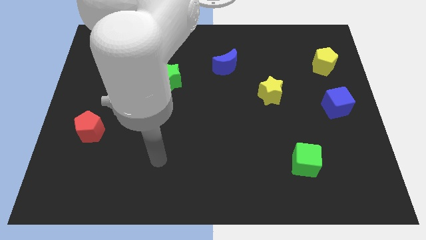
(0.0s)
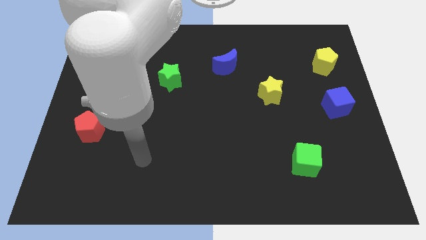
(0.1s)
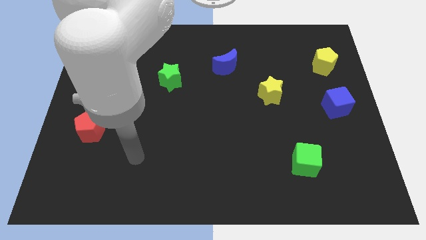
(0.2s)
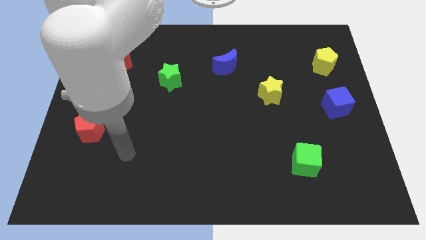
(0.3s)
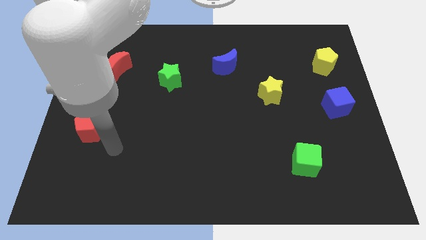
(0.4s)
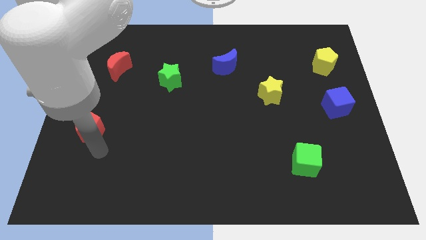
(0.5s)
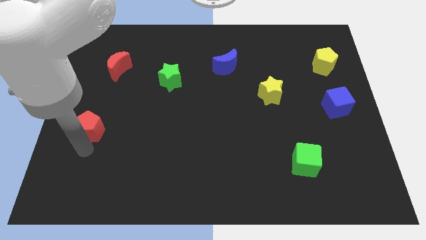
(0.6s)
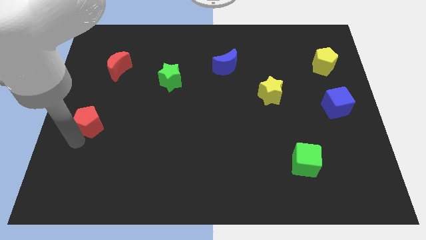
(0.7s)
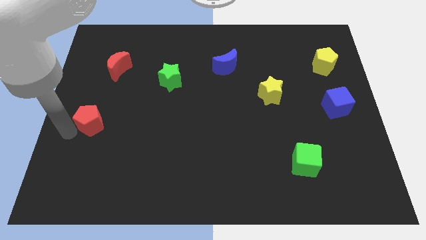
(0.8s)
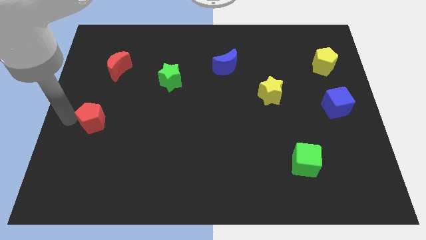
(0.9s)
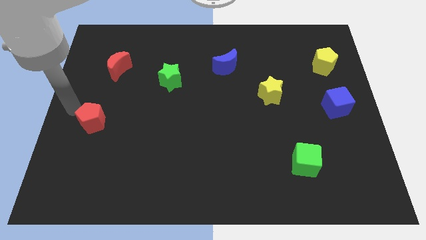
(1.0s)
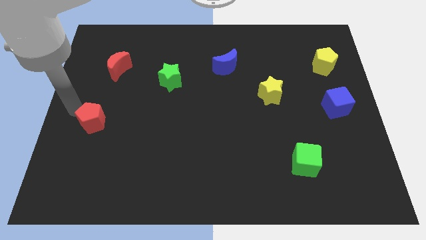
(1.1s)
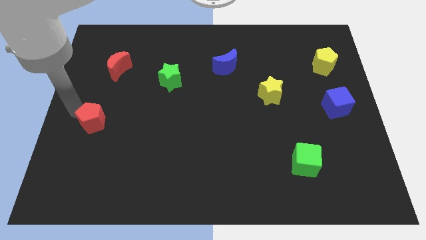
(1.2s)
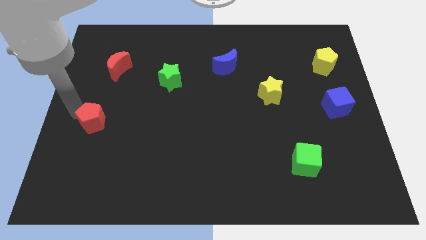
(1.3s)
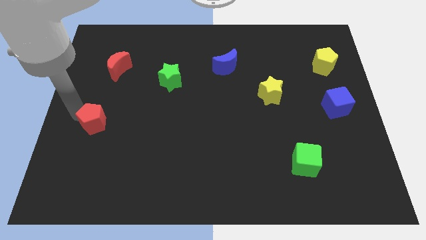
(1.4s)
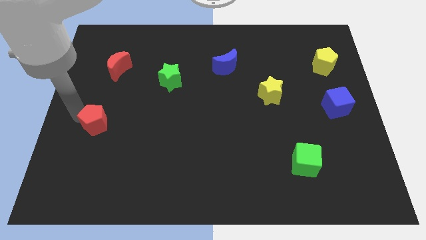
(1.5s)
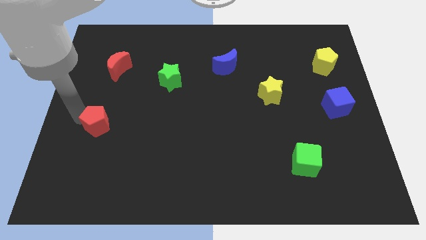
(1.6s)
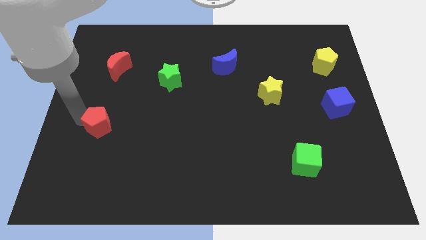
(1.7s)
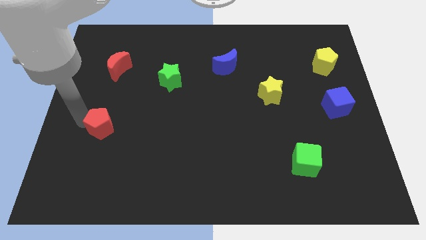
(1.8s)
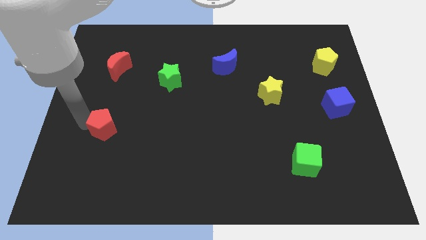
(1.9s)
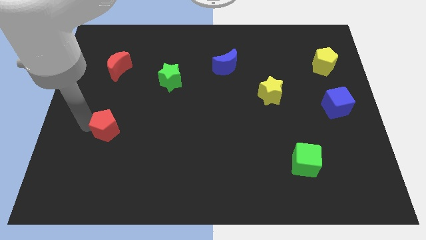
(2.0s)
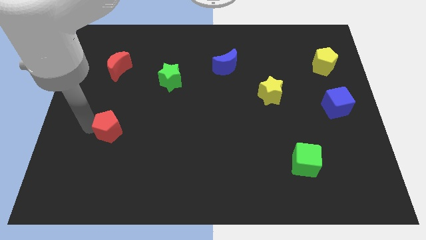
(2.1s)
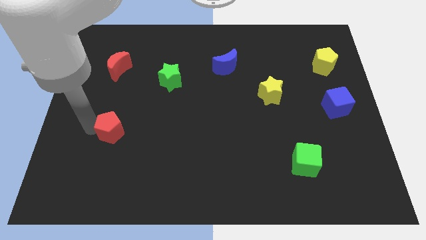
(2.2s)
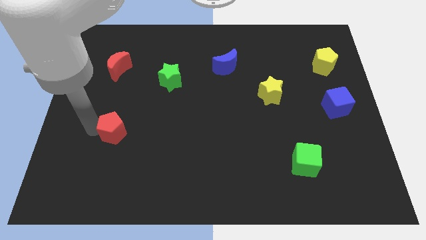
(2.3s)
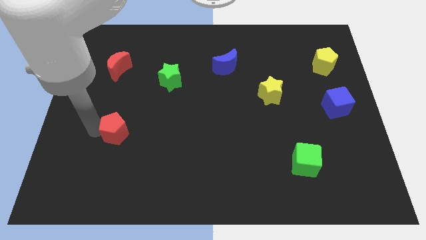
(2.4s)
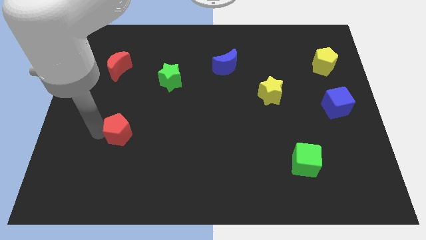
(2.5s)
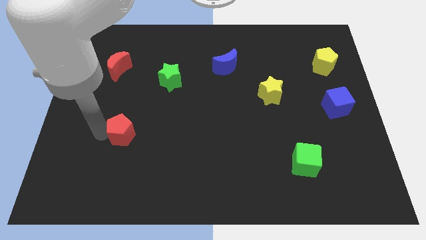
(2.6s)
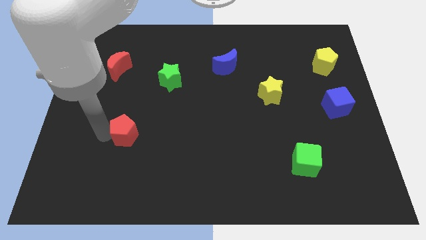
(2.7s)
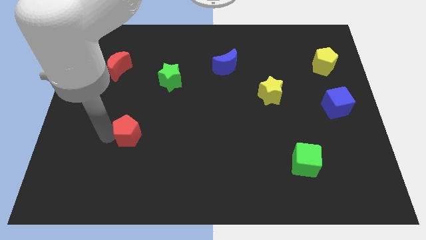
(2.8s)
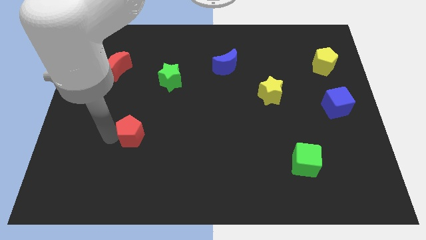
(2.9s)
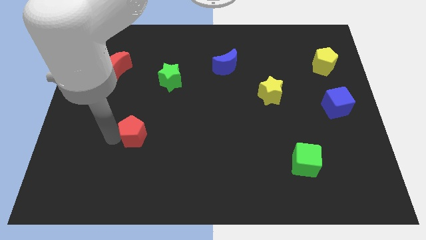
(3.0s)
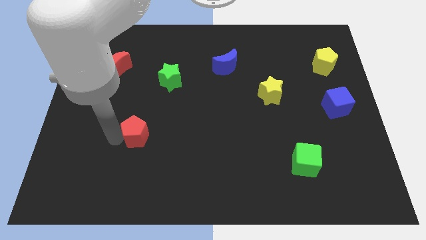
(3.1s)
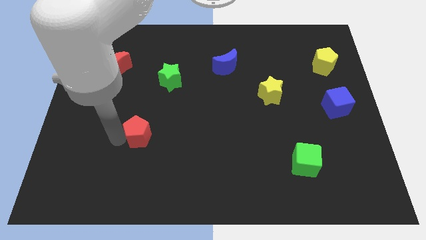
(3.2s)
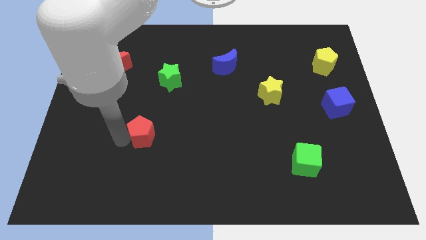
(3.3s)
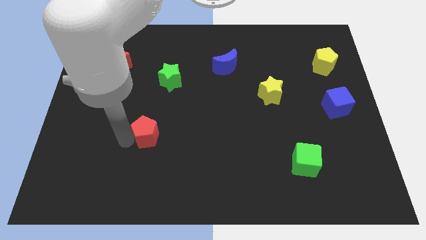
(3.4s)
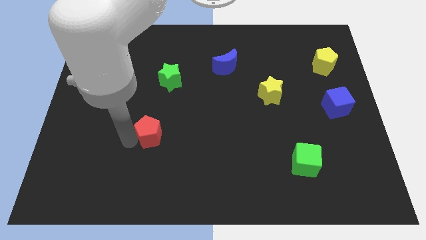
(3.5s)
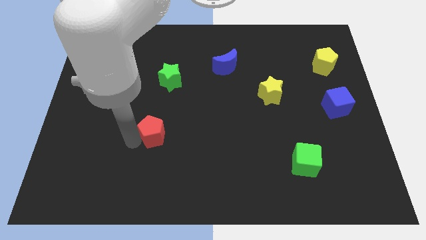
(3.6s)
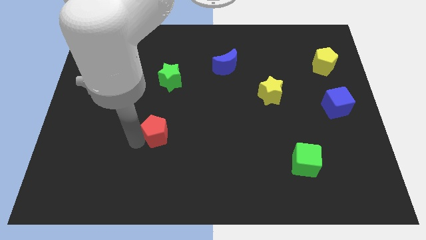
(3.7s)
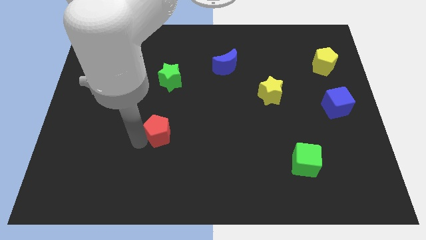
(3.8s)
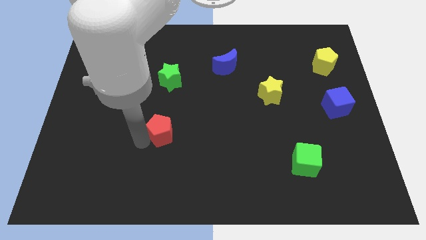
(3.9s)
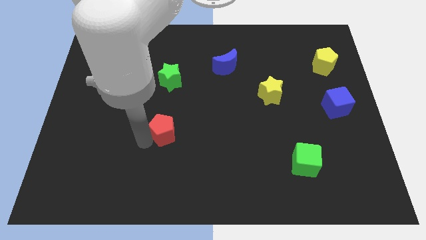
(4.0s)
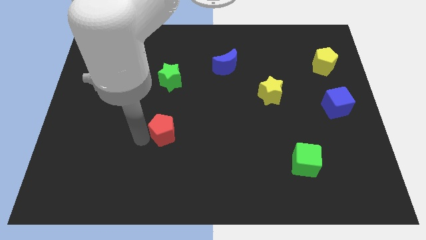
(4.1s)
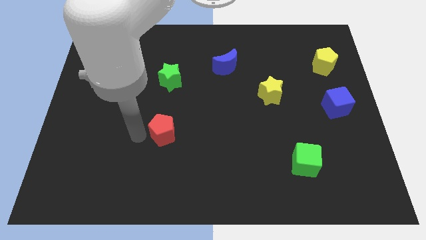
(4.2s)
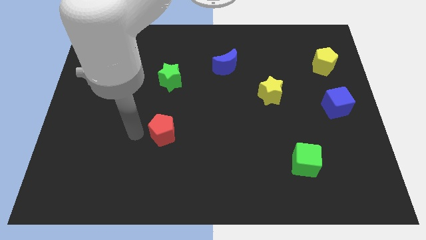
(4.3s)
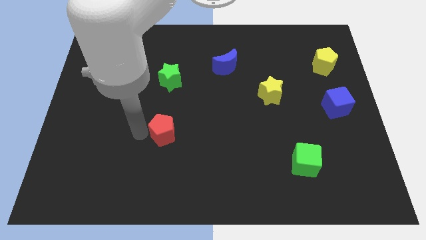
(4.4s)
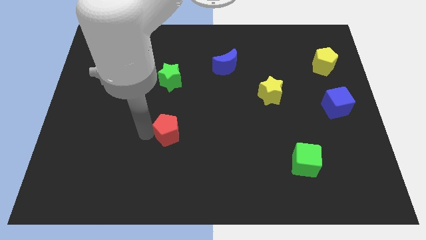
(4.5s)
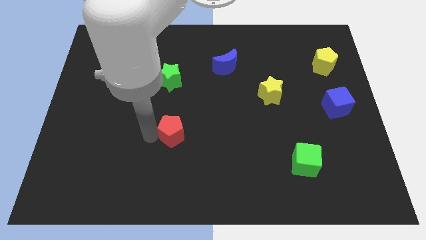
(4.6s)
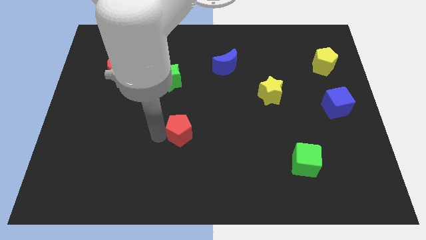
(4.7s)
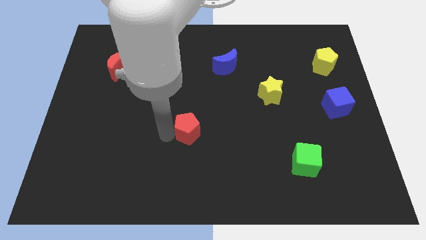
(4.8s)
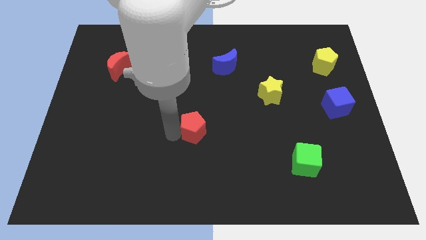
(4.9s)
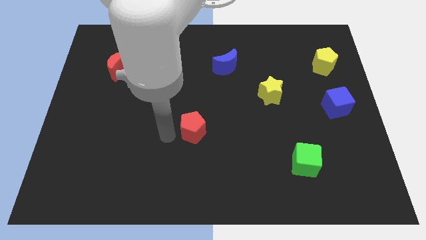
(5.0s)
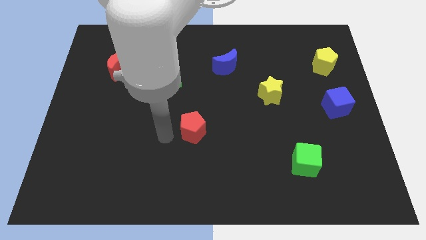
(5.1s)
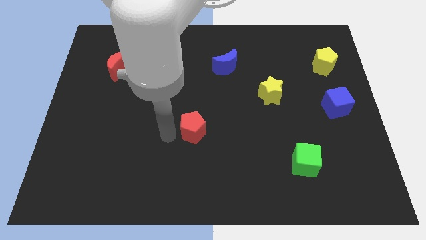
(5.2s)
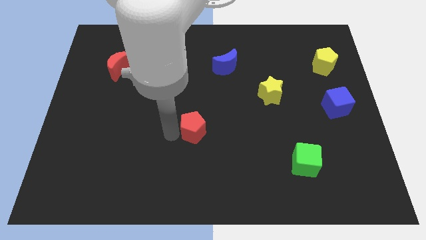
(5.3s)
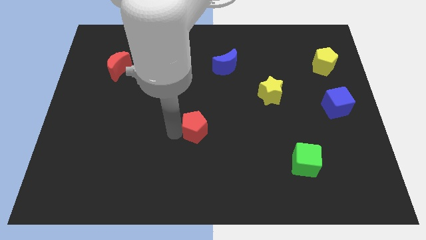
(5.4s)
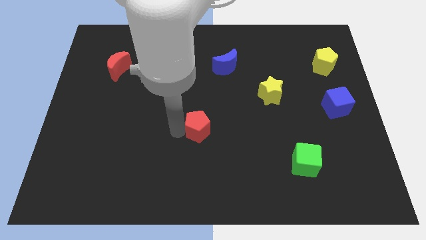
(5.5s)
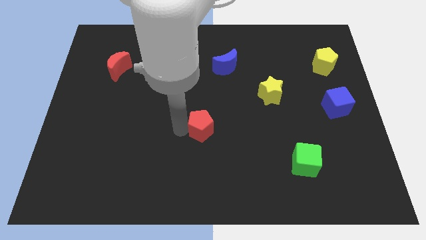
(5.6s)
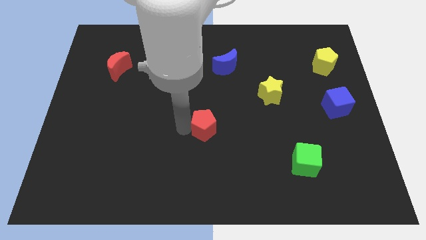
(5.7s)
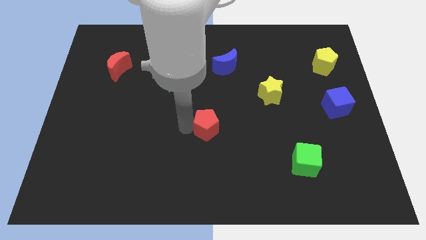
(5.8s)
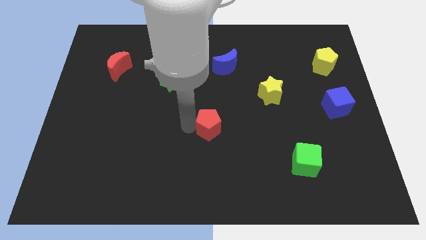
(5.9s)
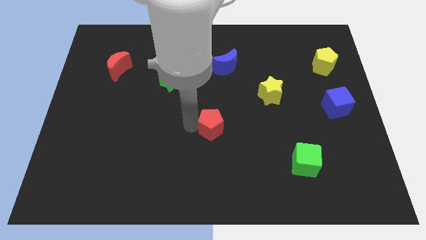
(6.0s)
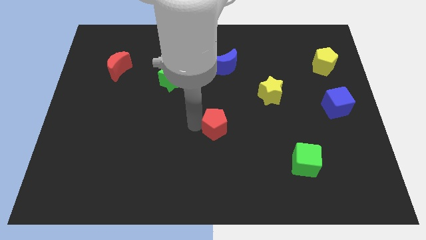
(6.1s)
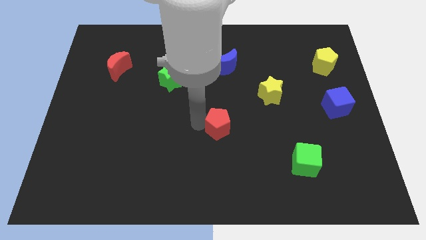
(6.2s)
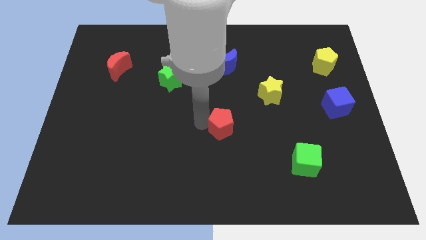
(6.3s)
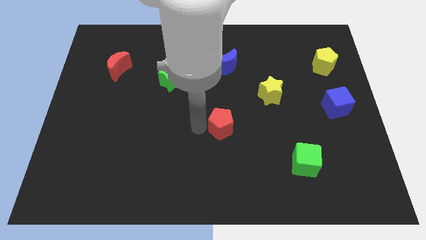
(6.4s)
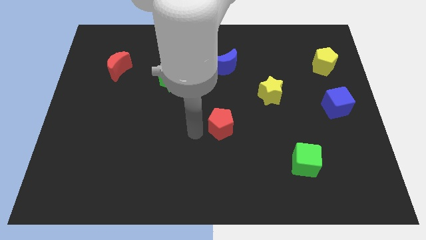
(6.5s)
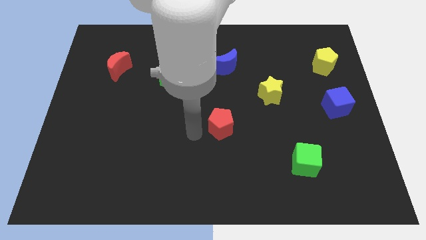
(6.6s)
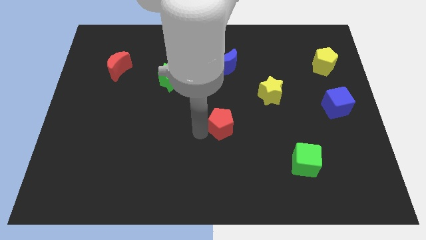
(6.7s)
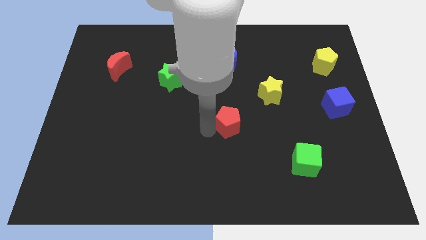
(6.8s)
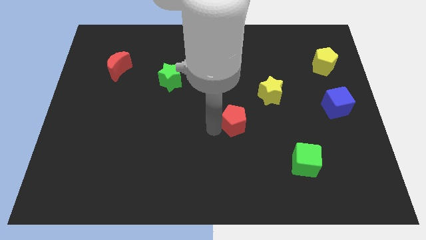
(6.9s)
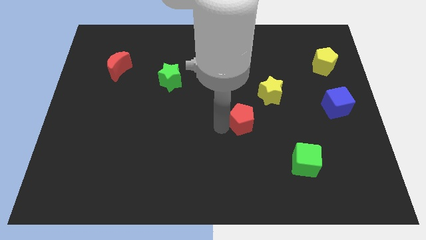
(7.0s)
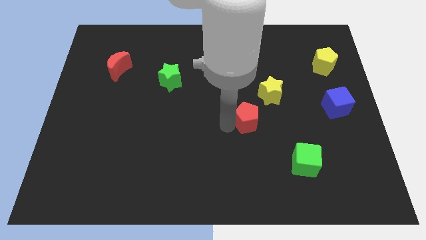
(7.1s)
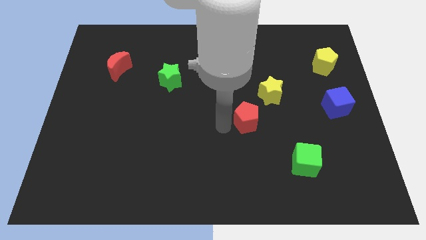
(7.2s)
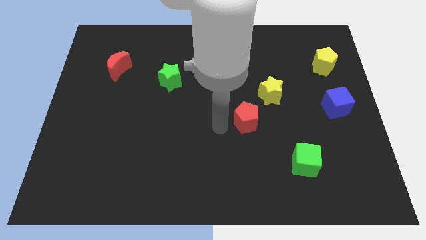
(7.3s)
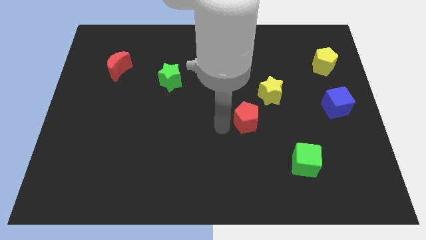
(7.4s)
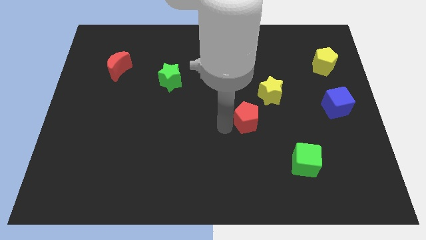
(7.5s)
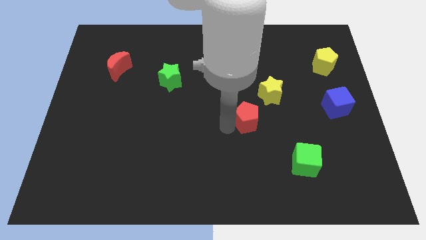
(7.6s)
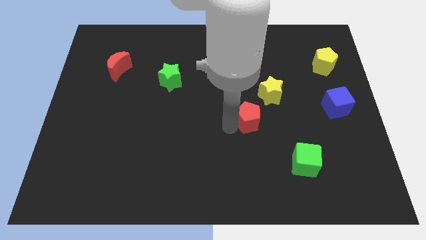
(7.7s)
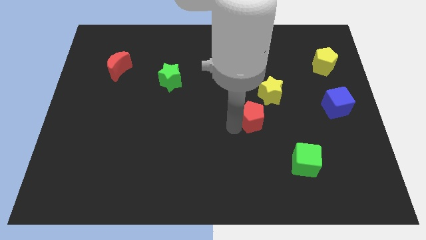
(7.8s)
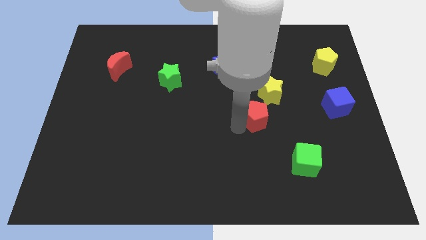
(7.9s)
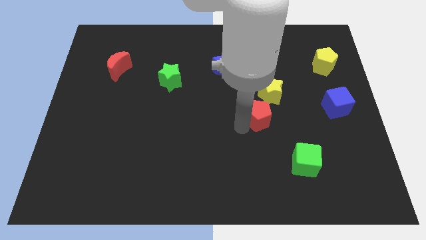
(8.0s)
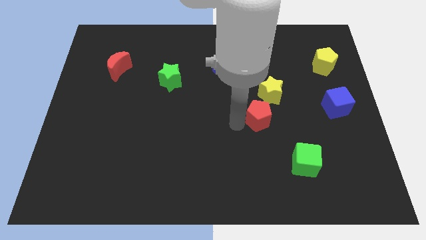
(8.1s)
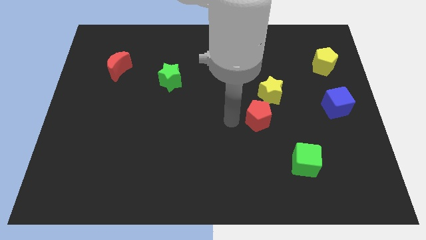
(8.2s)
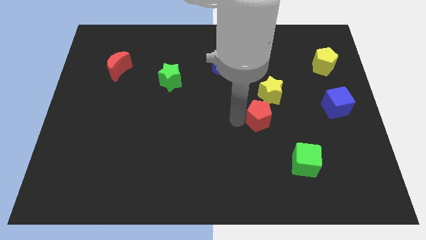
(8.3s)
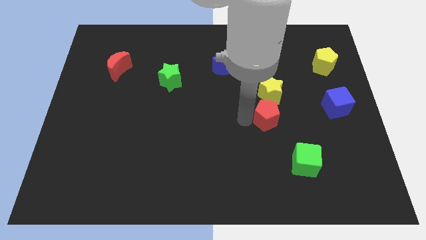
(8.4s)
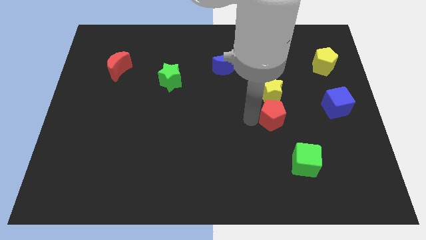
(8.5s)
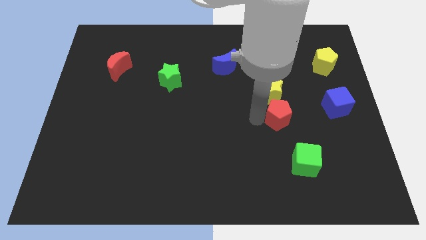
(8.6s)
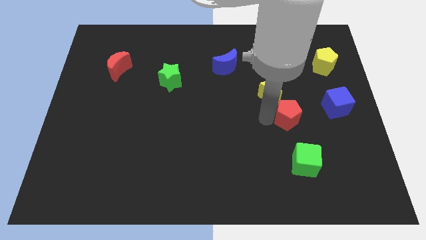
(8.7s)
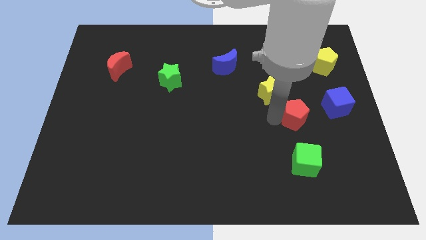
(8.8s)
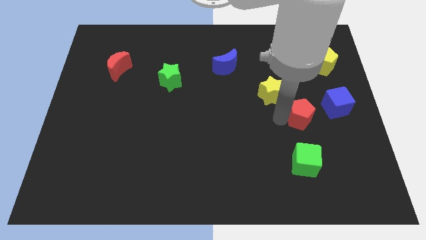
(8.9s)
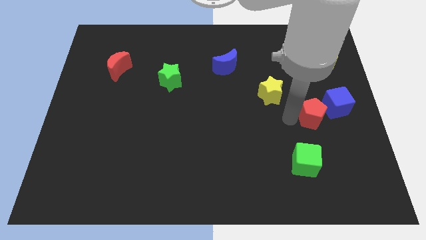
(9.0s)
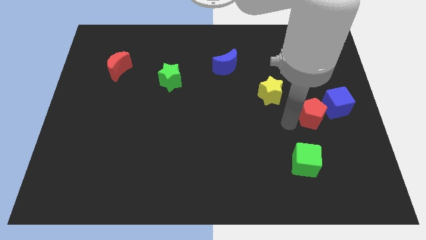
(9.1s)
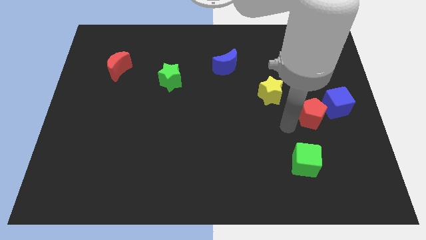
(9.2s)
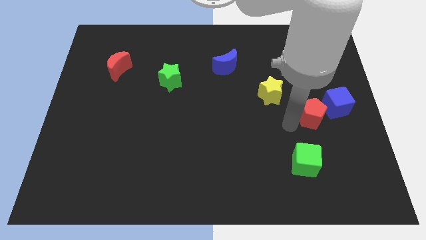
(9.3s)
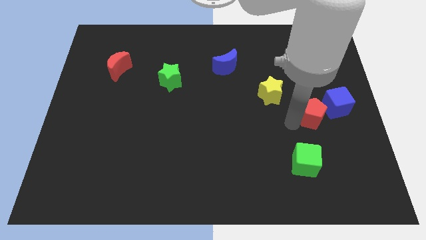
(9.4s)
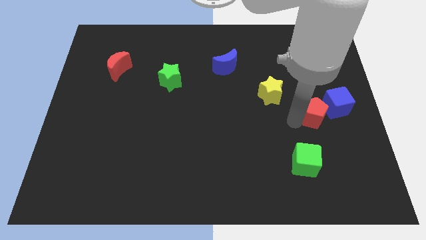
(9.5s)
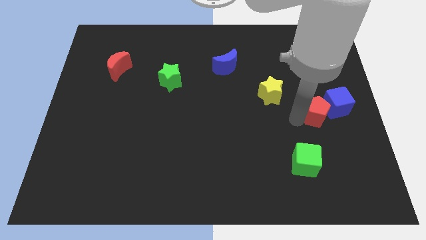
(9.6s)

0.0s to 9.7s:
put the red pentagon close to the blue cube
